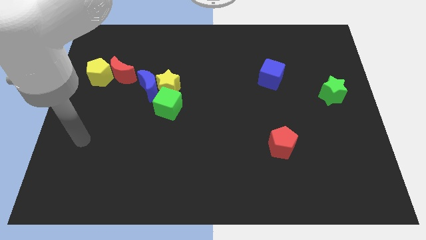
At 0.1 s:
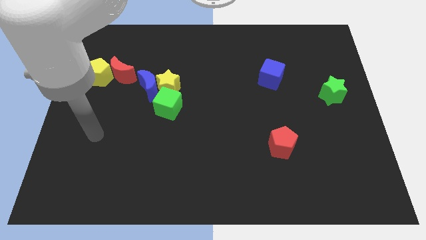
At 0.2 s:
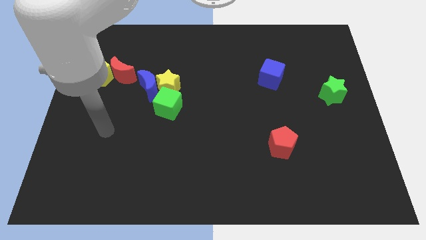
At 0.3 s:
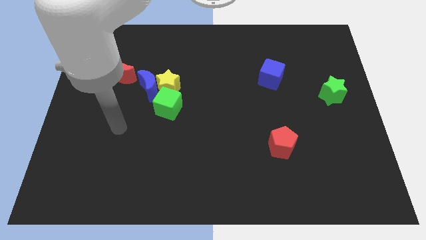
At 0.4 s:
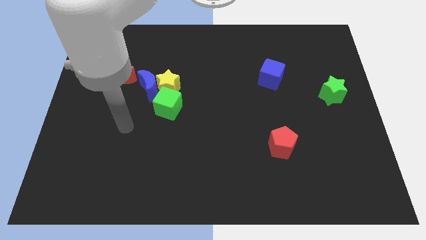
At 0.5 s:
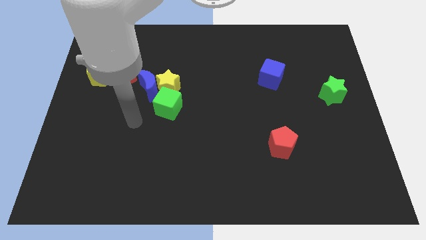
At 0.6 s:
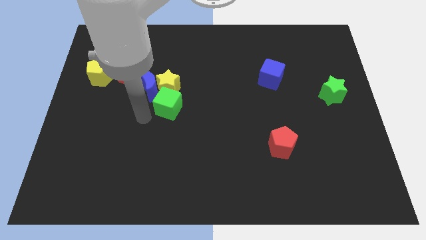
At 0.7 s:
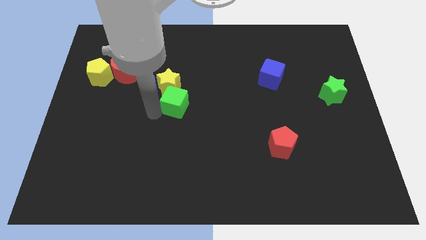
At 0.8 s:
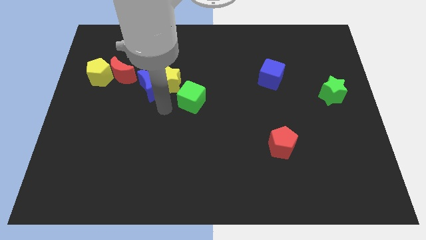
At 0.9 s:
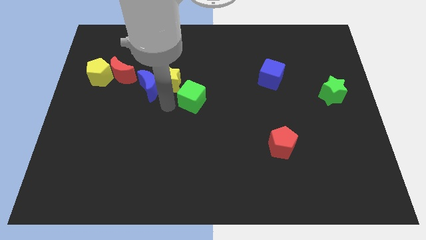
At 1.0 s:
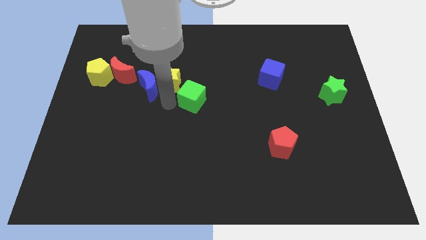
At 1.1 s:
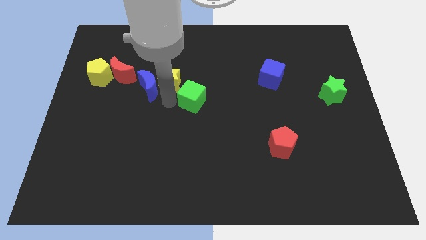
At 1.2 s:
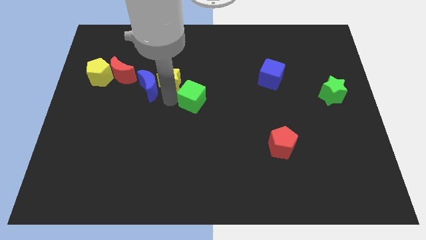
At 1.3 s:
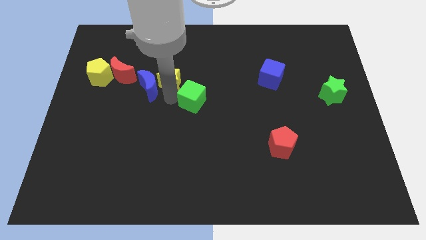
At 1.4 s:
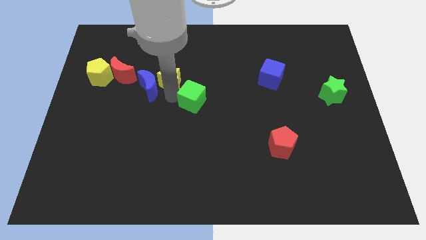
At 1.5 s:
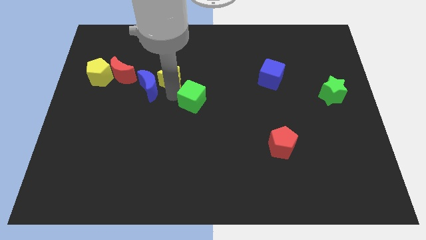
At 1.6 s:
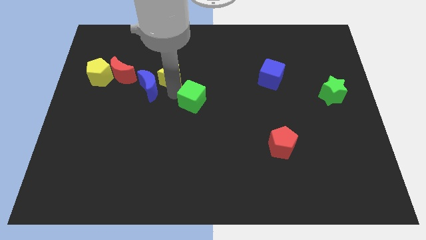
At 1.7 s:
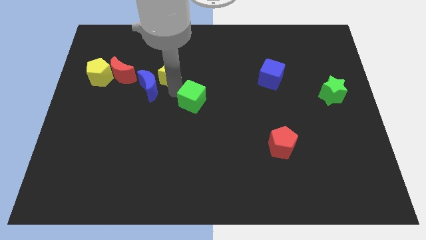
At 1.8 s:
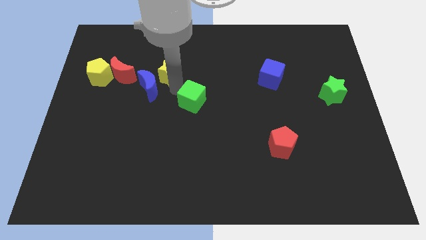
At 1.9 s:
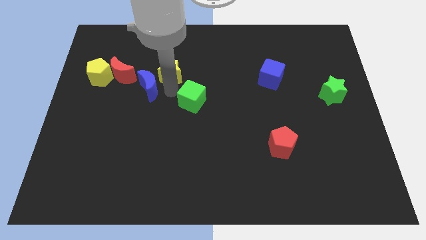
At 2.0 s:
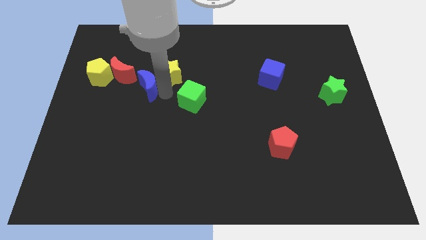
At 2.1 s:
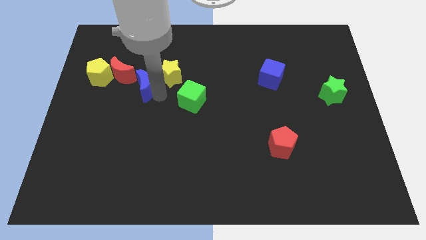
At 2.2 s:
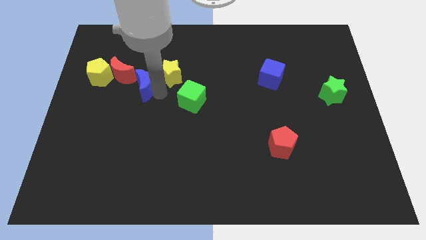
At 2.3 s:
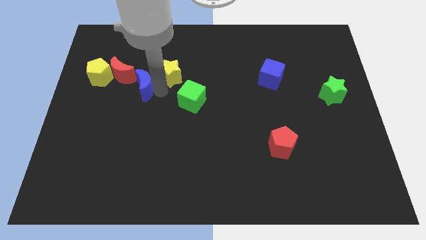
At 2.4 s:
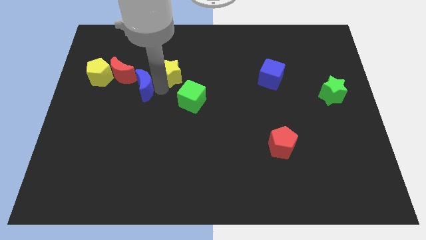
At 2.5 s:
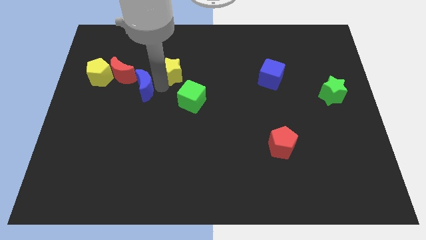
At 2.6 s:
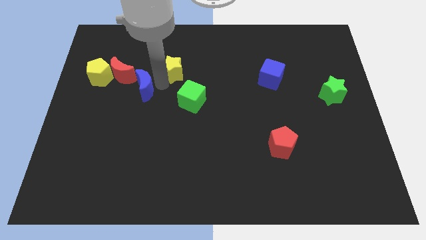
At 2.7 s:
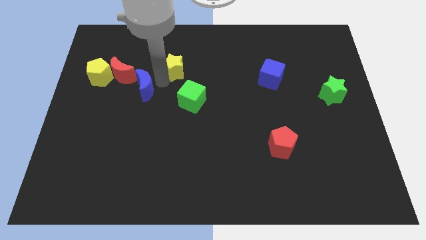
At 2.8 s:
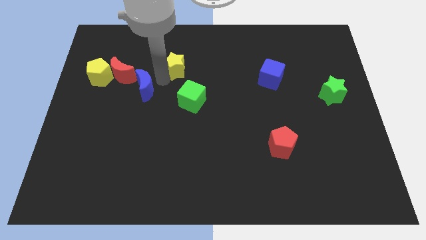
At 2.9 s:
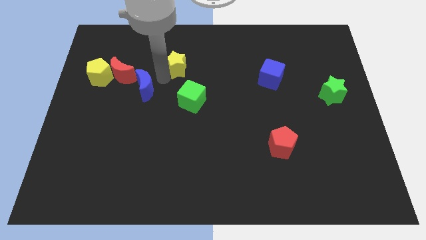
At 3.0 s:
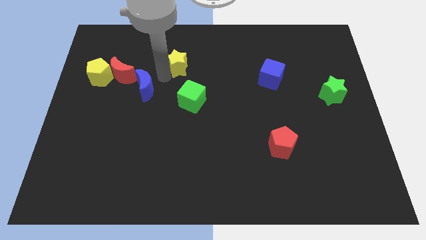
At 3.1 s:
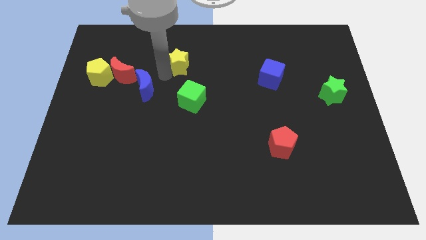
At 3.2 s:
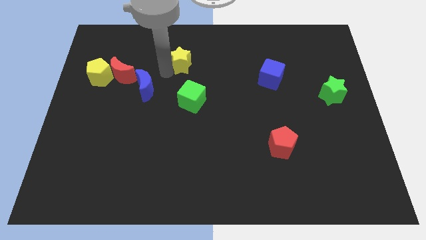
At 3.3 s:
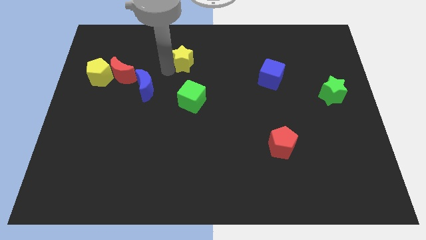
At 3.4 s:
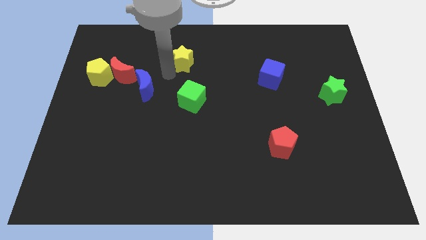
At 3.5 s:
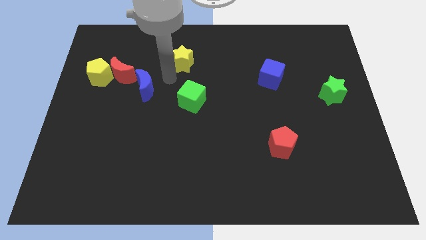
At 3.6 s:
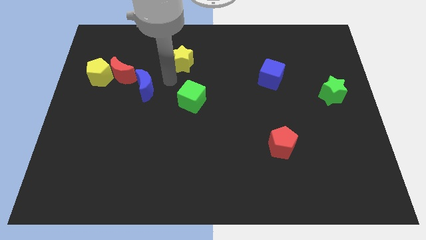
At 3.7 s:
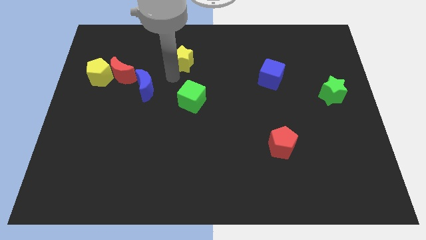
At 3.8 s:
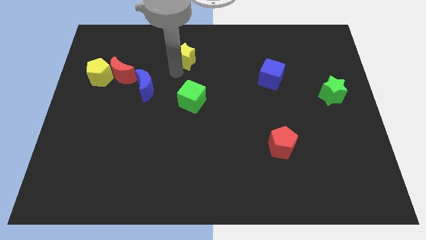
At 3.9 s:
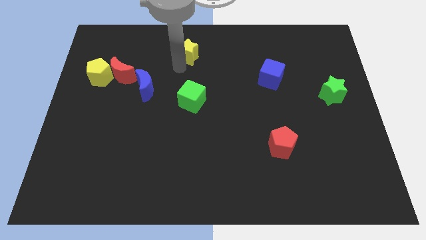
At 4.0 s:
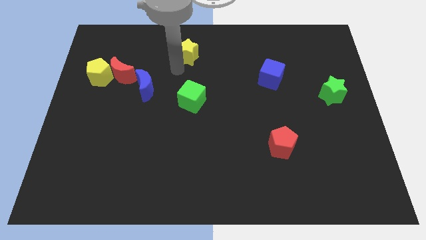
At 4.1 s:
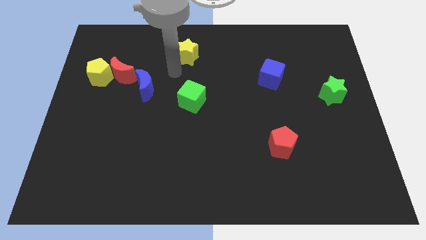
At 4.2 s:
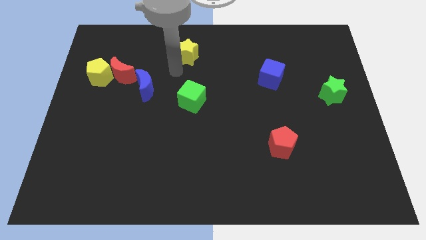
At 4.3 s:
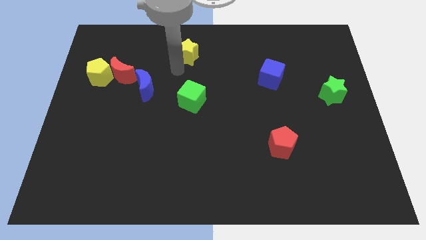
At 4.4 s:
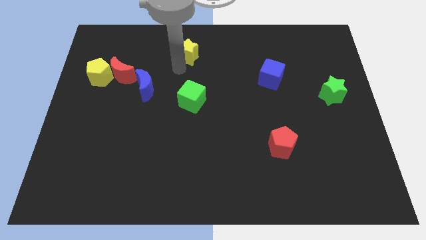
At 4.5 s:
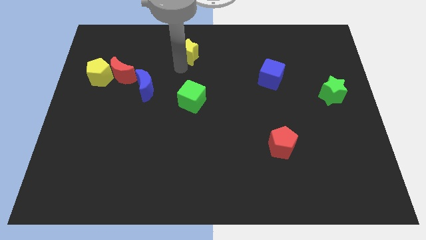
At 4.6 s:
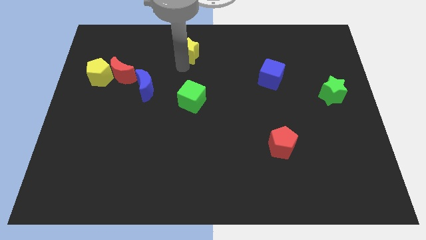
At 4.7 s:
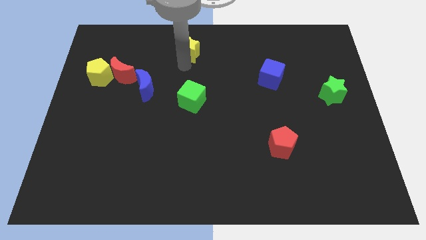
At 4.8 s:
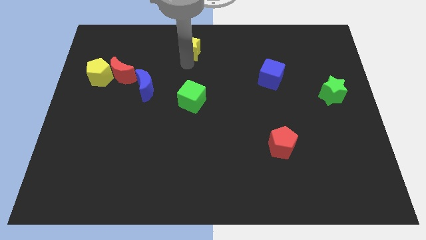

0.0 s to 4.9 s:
push the yellow star to the top side

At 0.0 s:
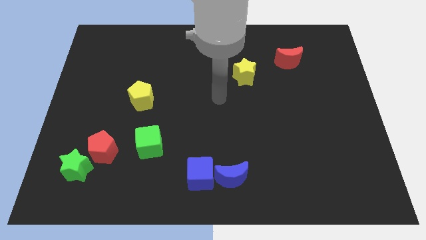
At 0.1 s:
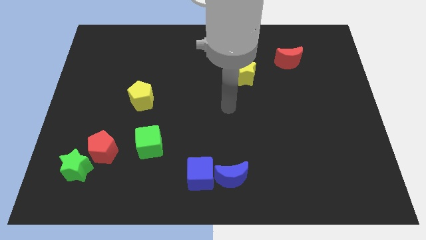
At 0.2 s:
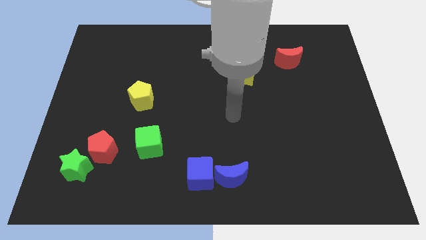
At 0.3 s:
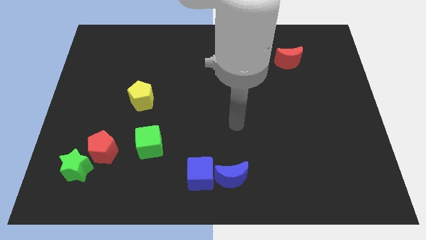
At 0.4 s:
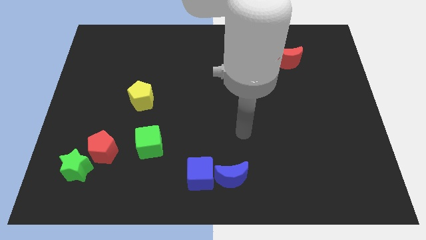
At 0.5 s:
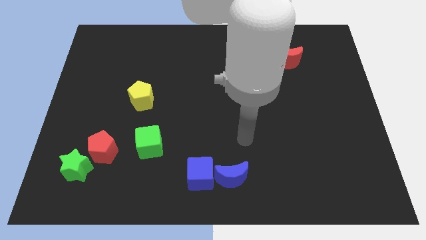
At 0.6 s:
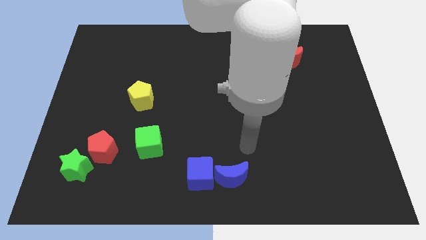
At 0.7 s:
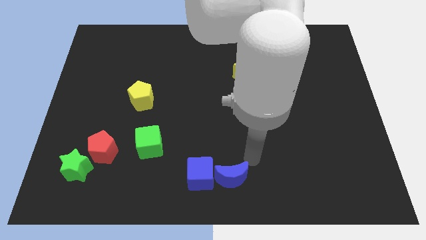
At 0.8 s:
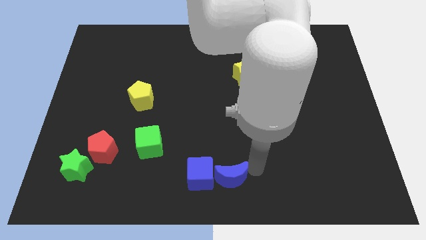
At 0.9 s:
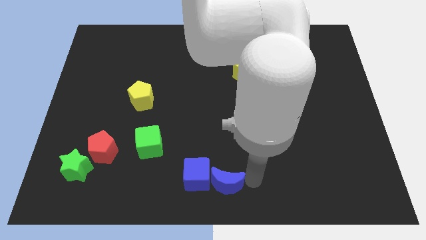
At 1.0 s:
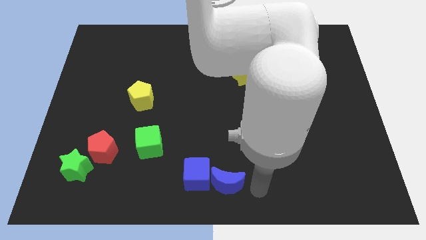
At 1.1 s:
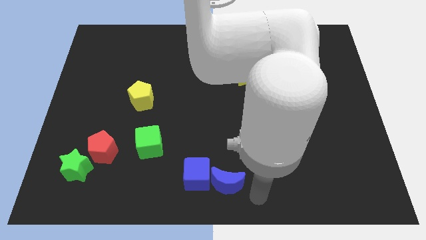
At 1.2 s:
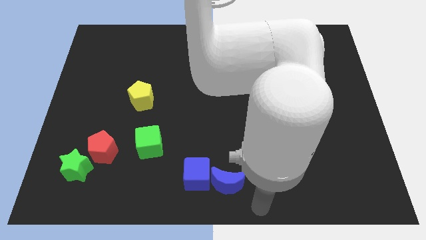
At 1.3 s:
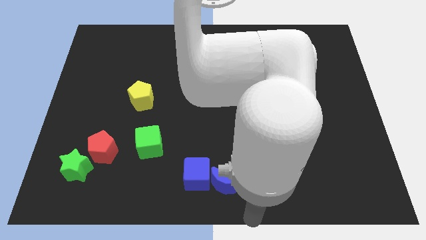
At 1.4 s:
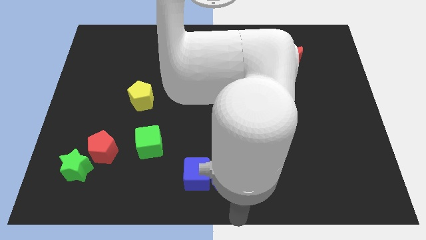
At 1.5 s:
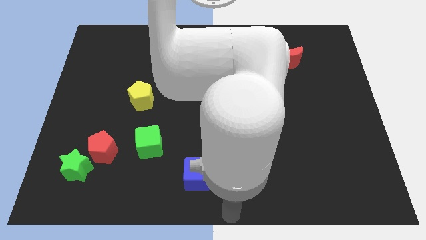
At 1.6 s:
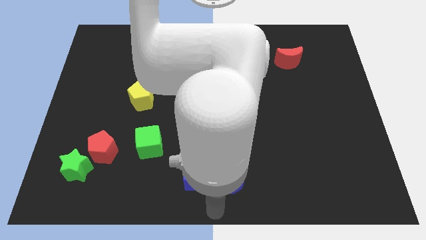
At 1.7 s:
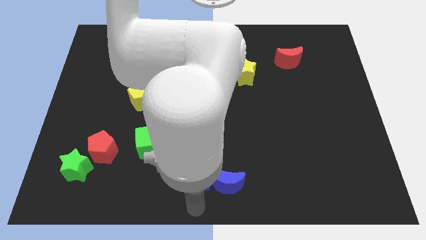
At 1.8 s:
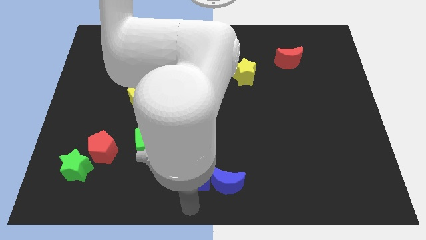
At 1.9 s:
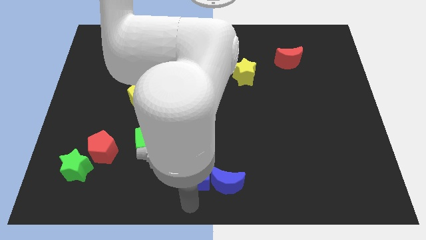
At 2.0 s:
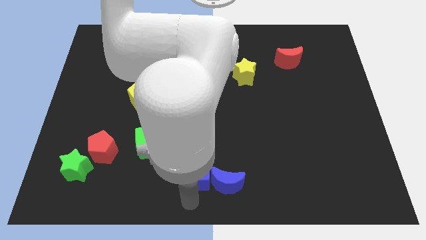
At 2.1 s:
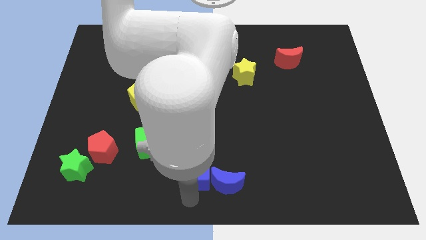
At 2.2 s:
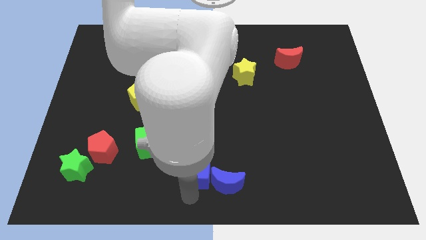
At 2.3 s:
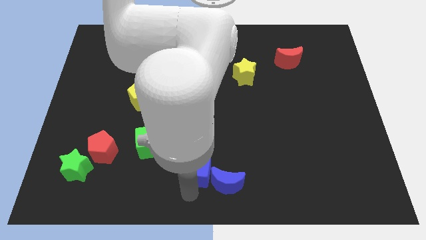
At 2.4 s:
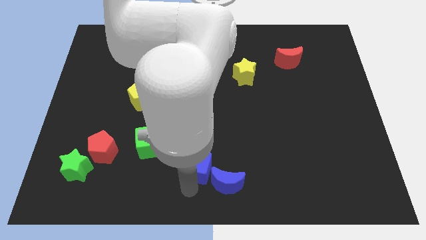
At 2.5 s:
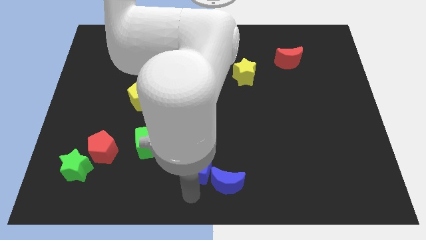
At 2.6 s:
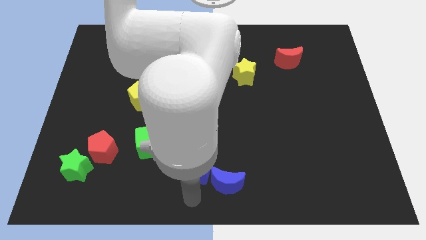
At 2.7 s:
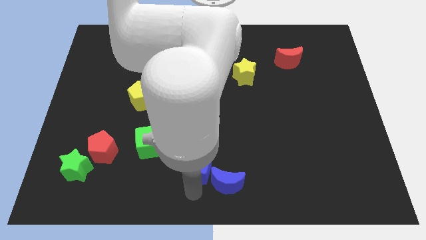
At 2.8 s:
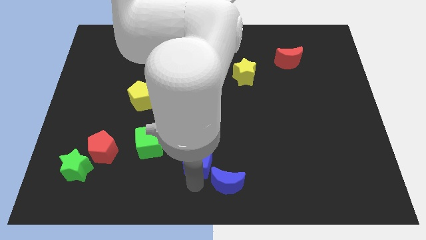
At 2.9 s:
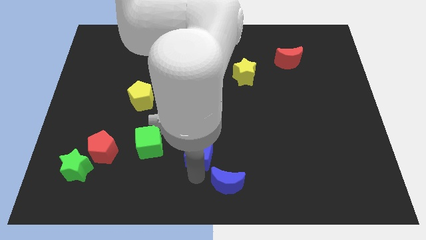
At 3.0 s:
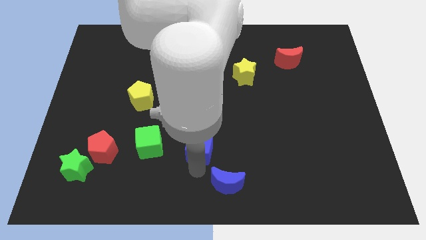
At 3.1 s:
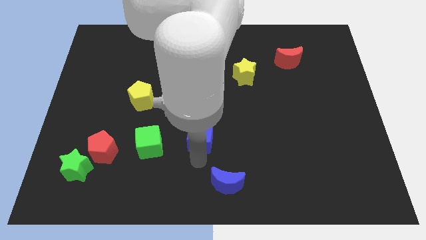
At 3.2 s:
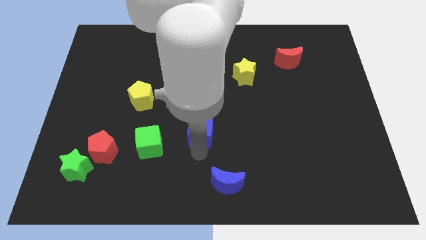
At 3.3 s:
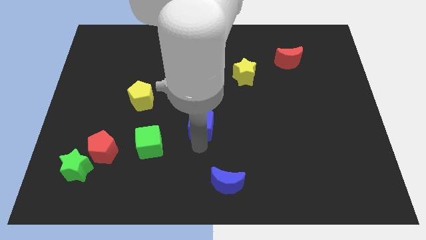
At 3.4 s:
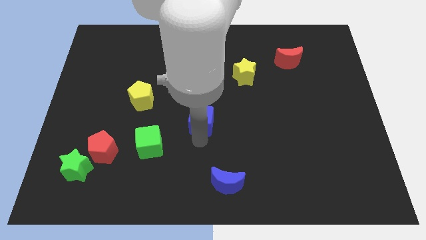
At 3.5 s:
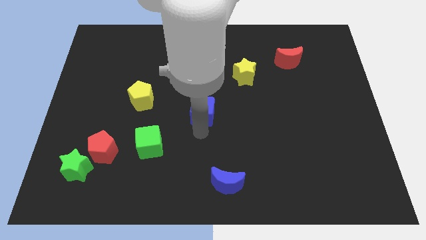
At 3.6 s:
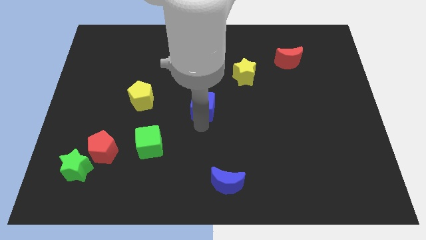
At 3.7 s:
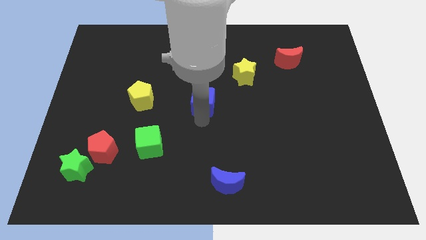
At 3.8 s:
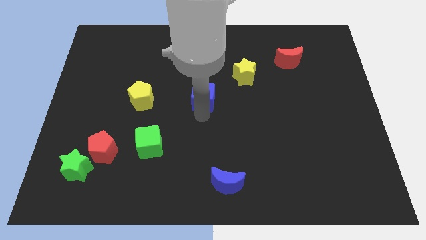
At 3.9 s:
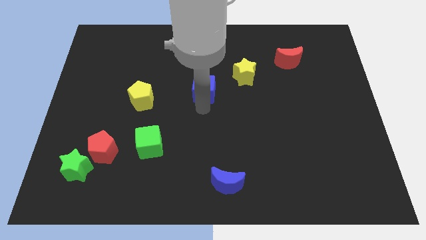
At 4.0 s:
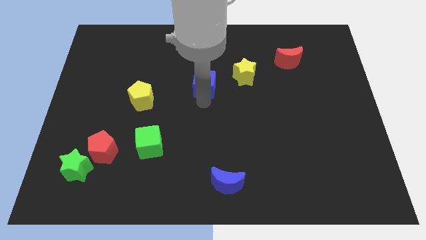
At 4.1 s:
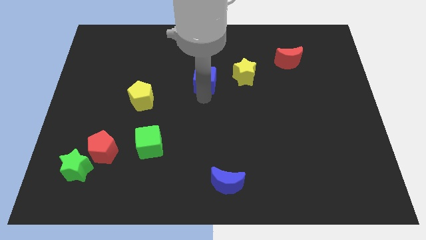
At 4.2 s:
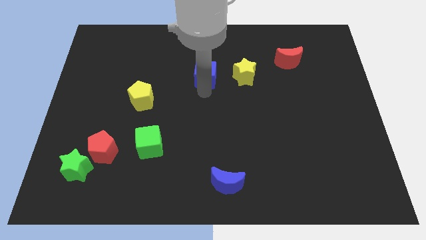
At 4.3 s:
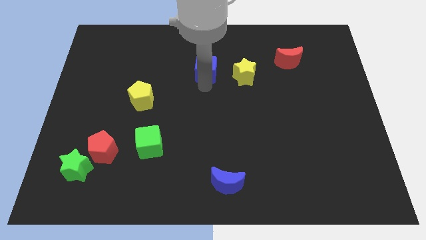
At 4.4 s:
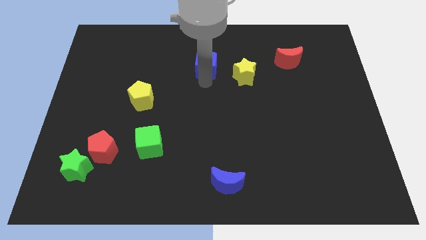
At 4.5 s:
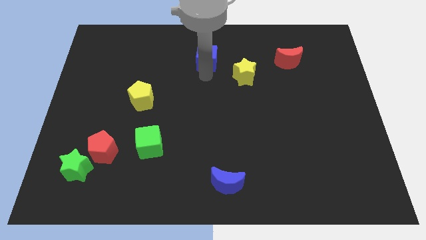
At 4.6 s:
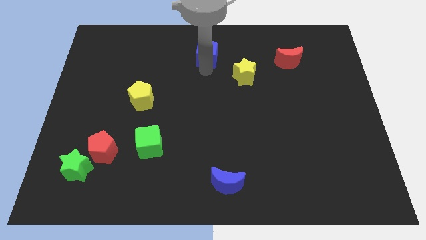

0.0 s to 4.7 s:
put the blue cube to the towards your base
